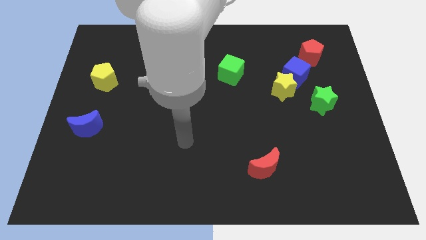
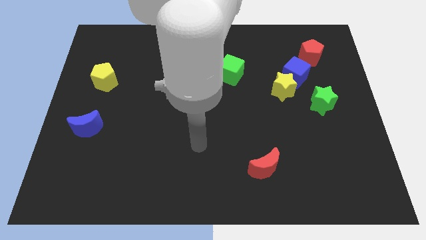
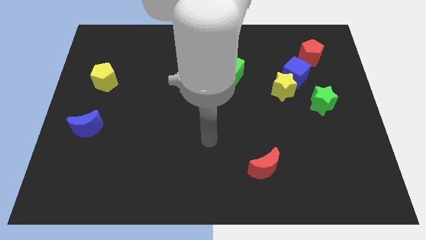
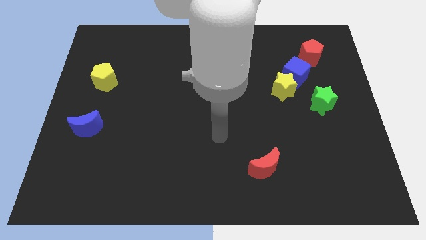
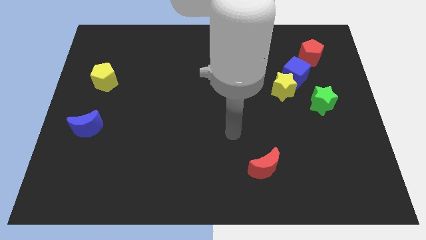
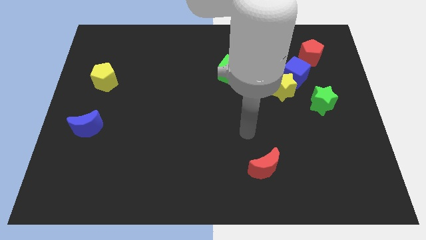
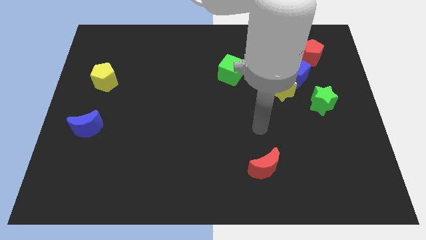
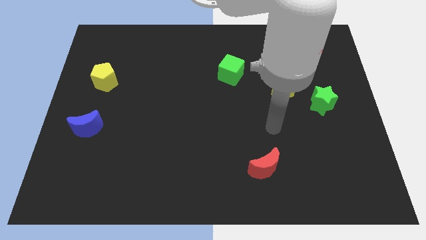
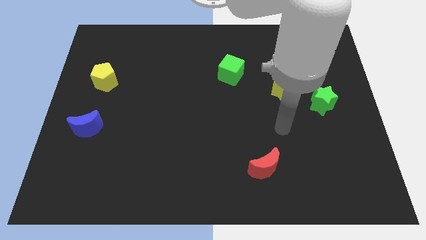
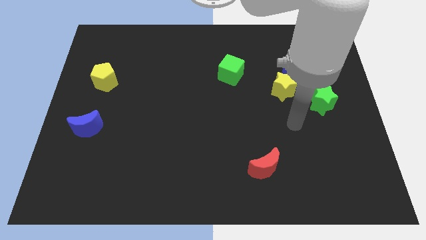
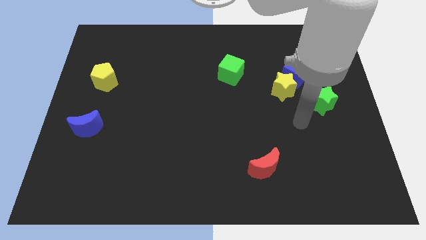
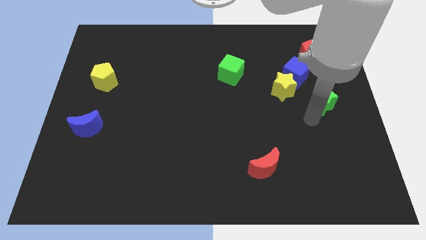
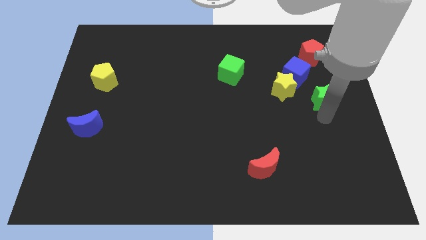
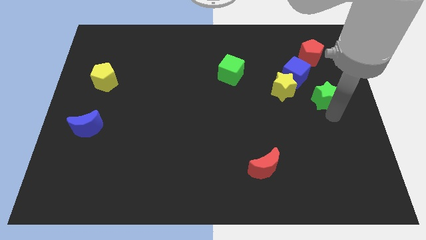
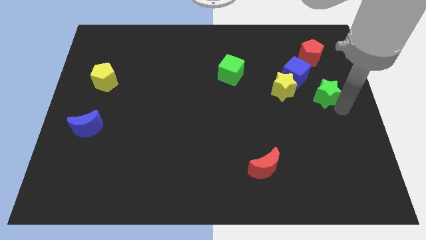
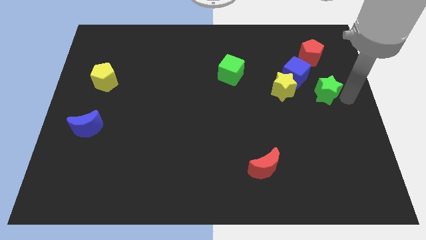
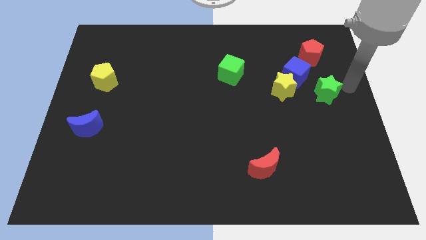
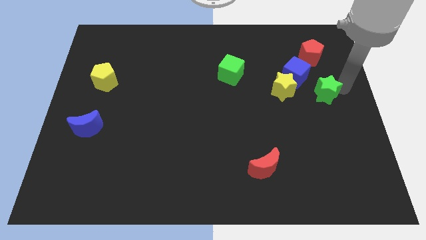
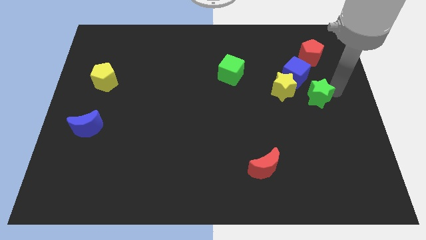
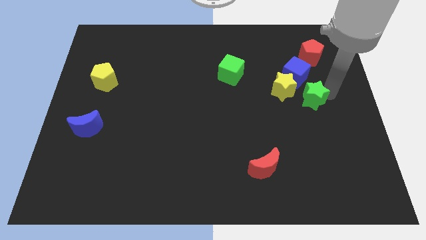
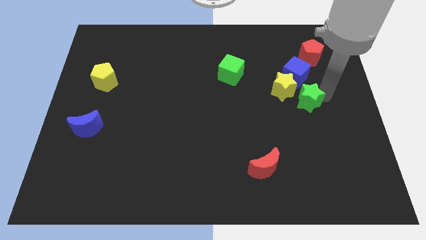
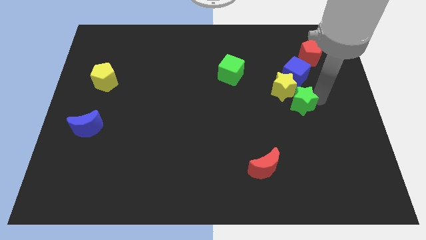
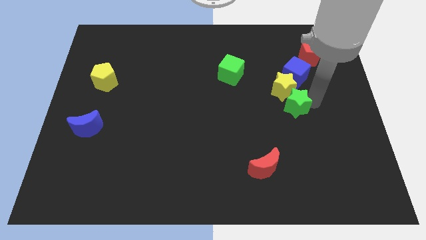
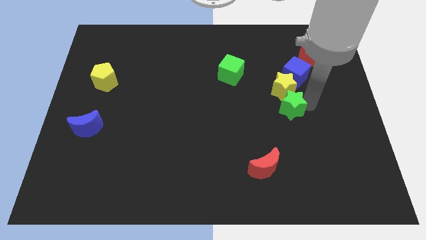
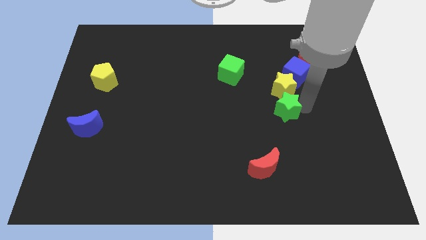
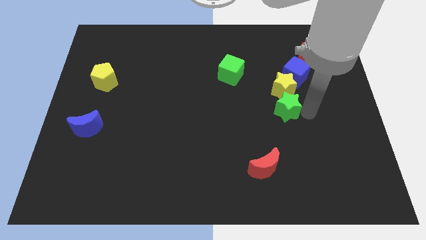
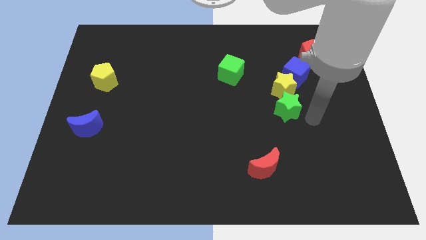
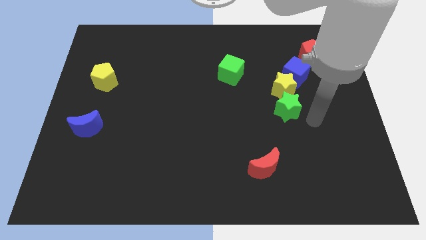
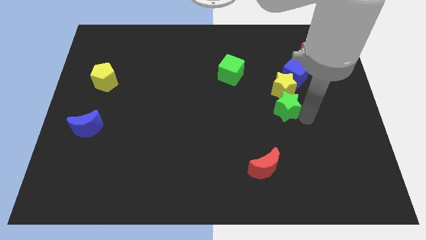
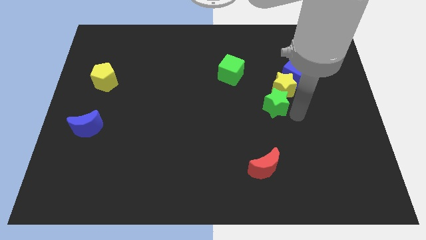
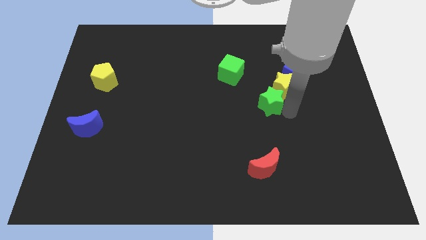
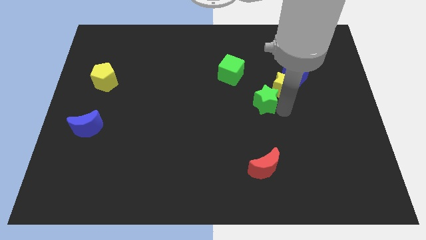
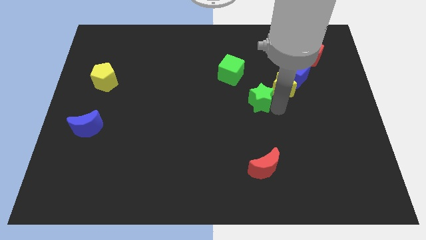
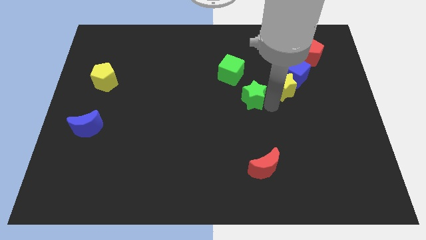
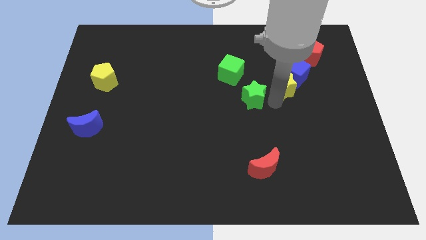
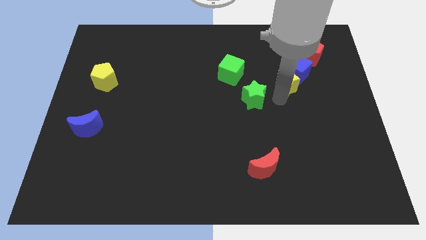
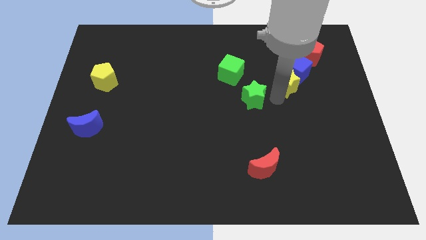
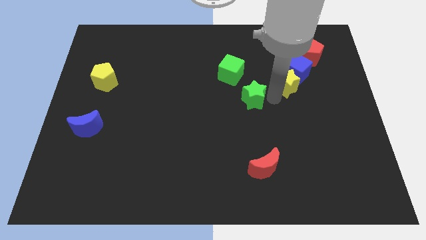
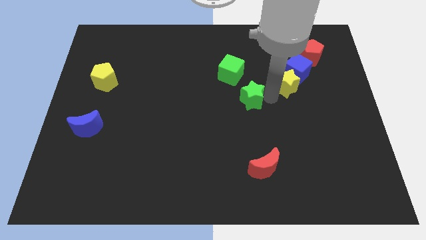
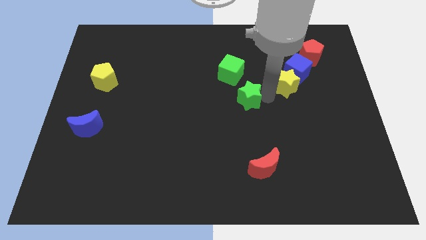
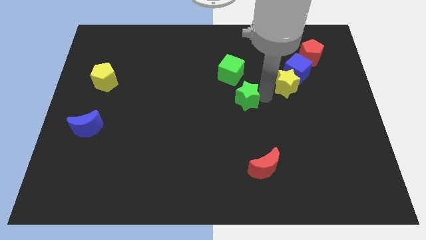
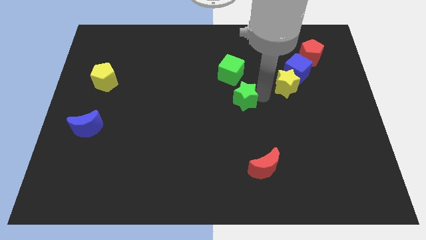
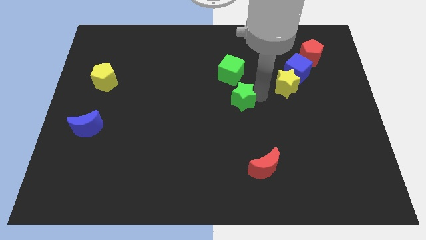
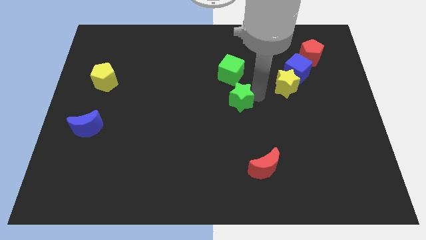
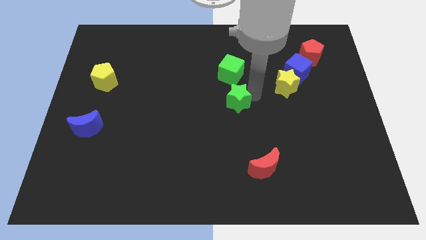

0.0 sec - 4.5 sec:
push the green star to the left

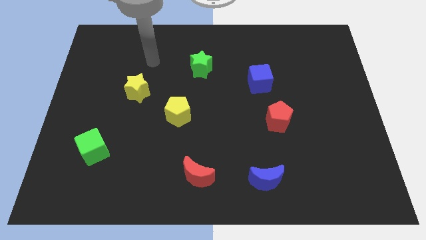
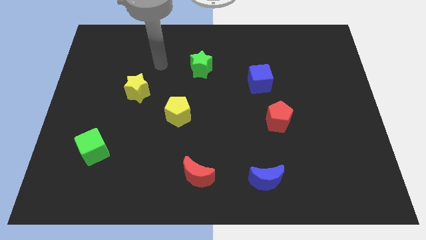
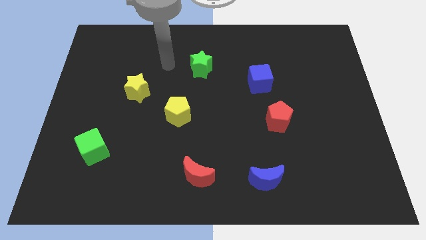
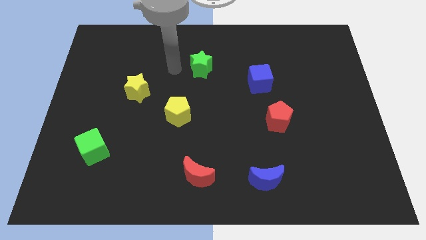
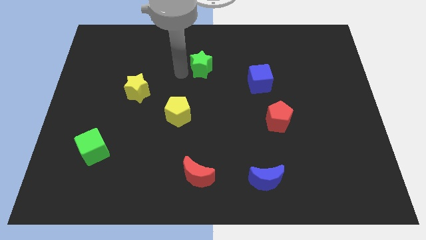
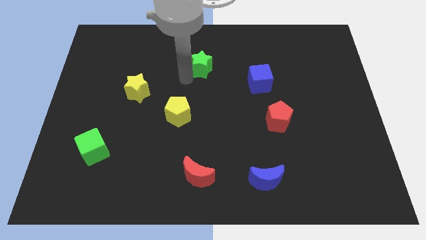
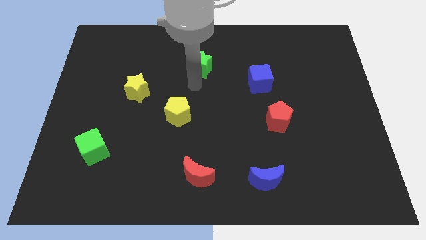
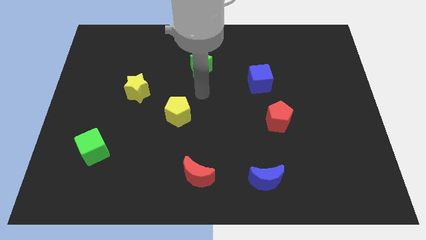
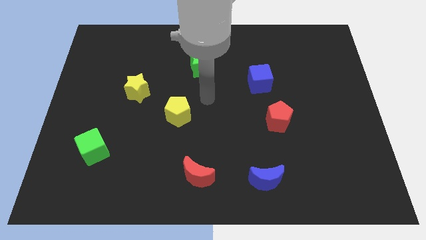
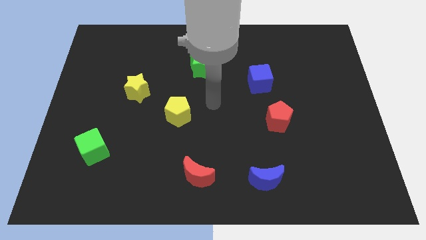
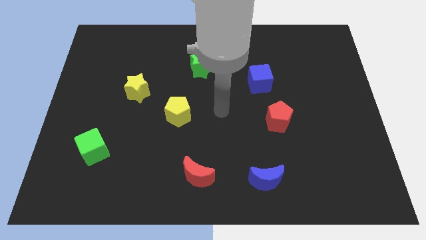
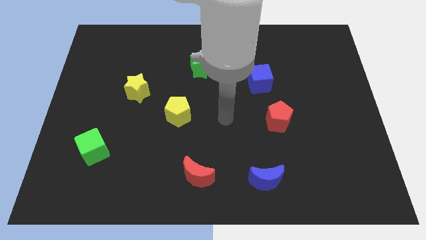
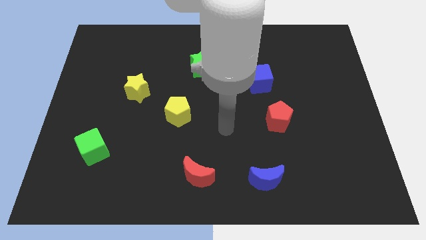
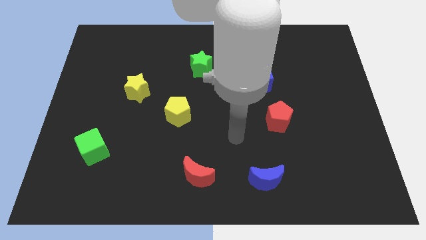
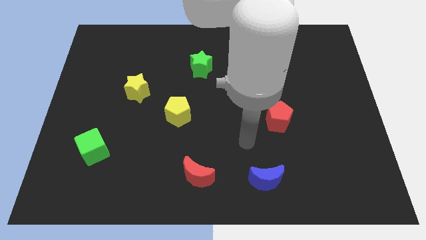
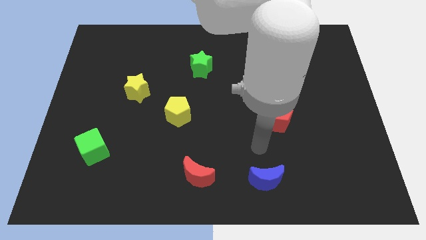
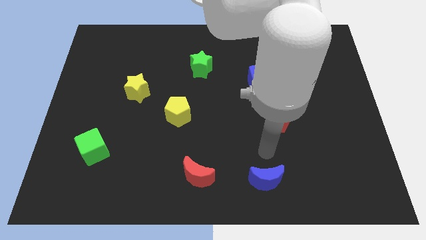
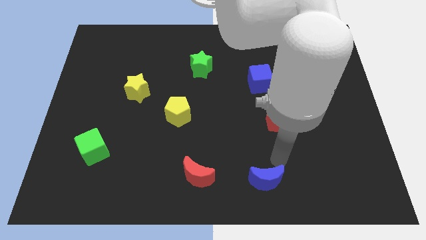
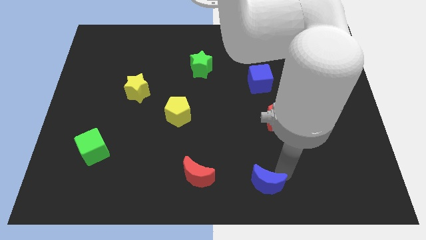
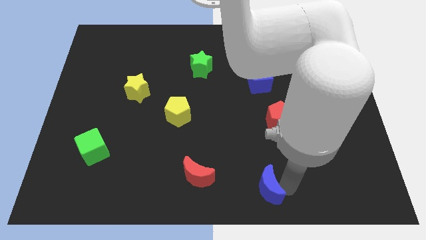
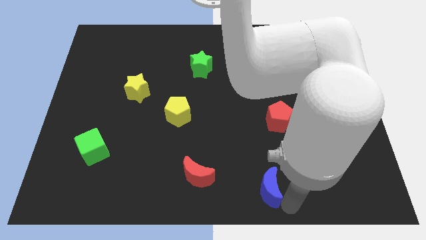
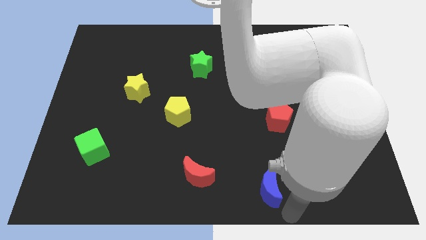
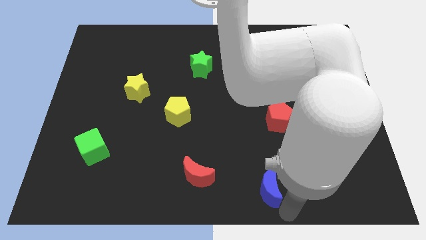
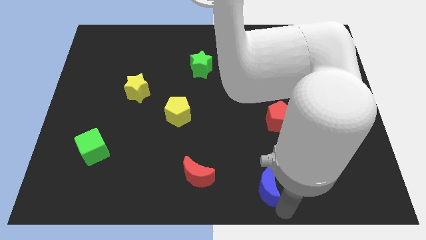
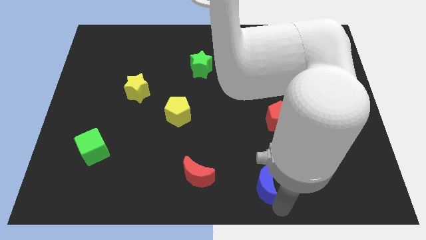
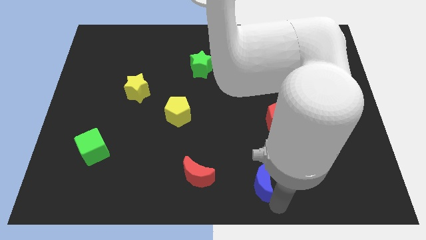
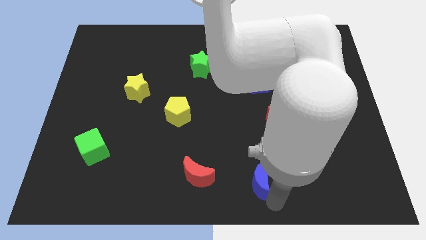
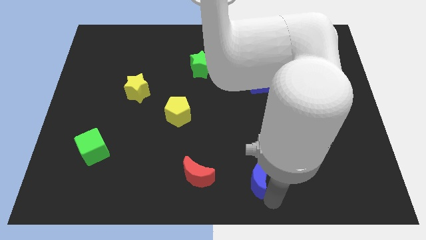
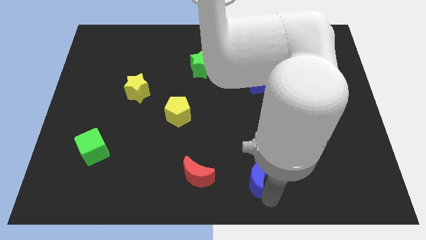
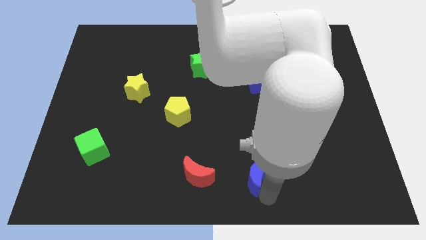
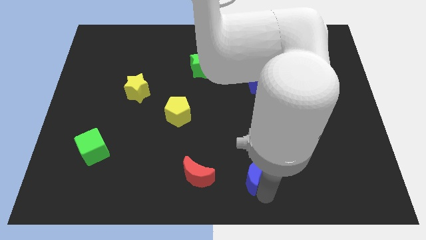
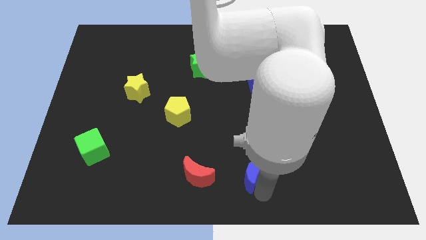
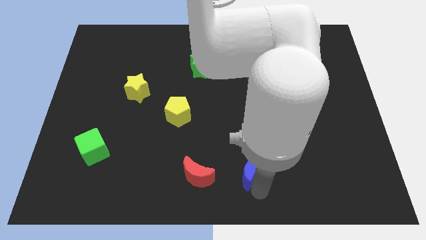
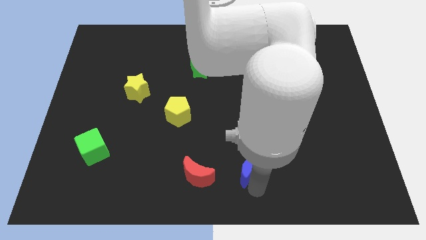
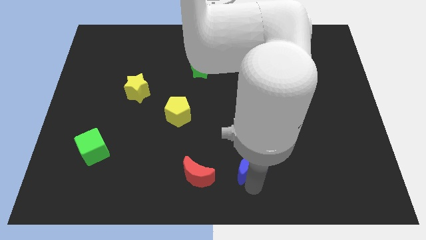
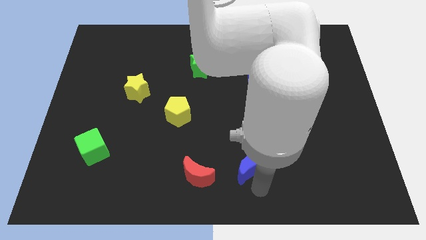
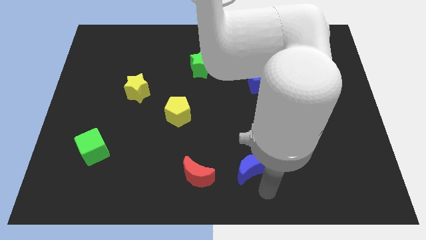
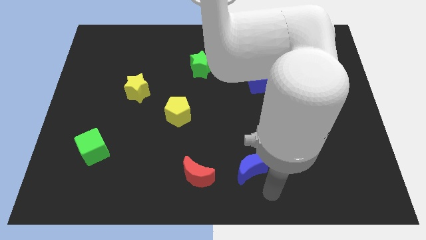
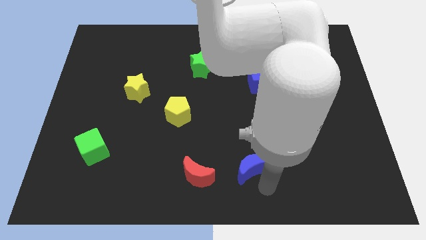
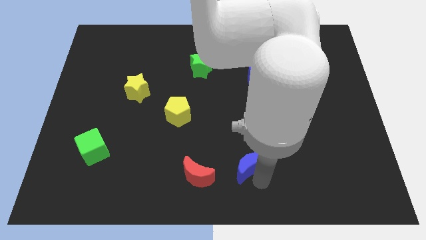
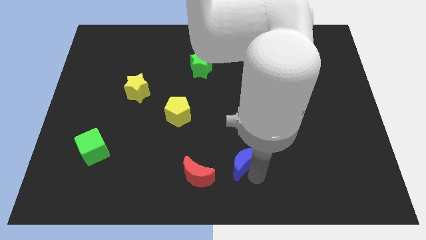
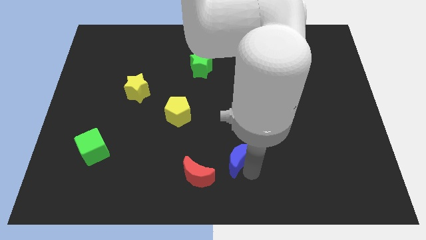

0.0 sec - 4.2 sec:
slightly move the blue moon up and to the left
